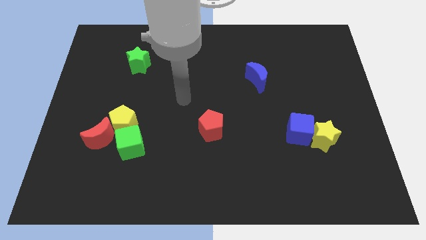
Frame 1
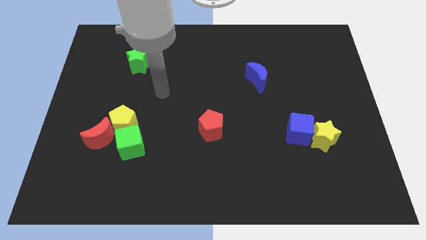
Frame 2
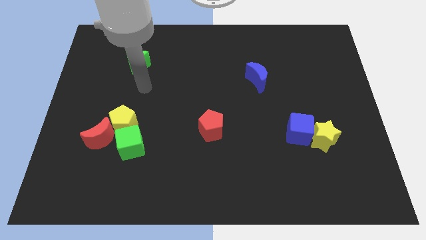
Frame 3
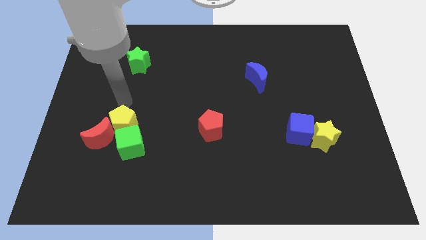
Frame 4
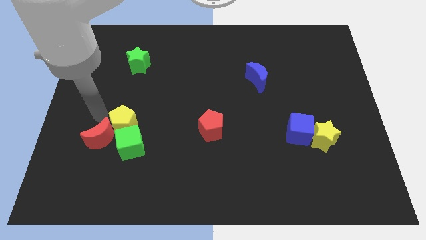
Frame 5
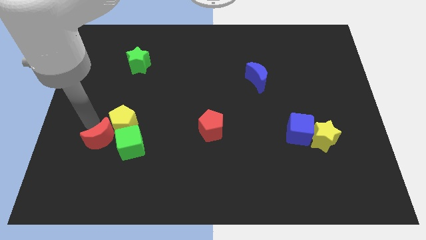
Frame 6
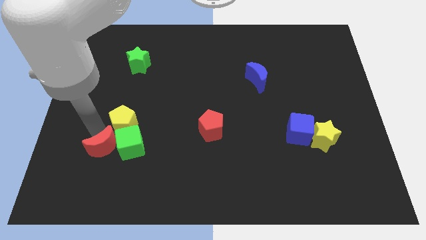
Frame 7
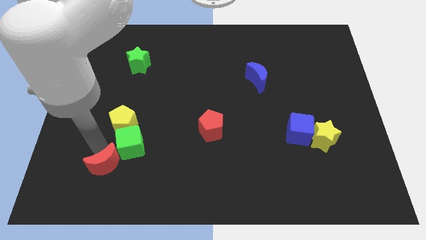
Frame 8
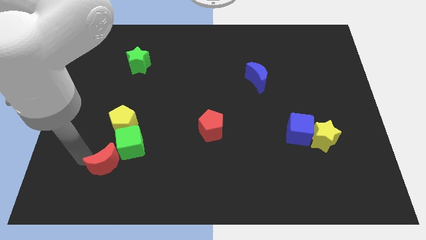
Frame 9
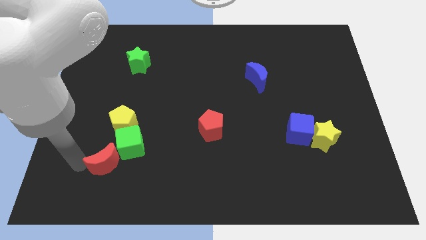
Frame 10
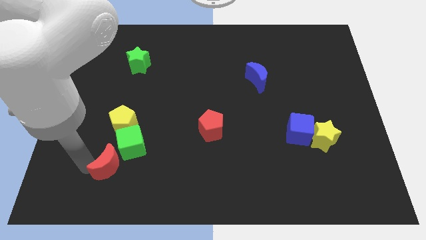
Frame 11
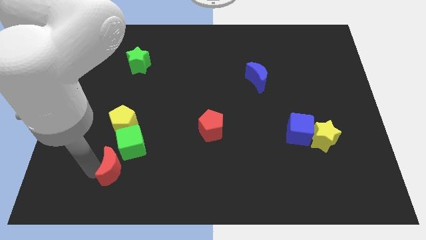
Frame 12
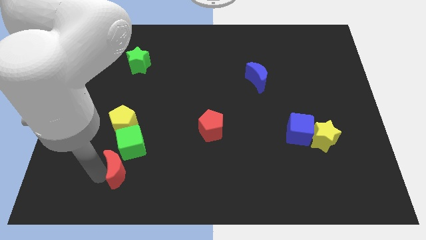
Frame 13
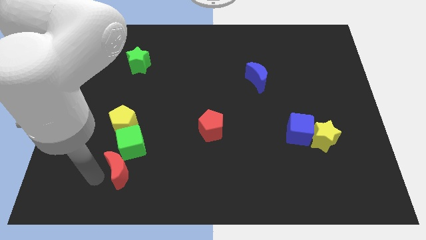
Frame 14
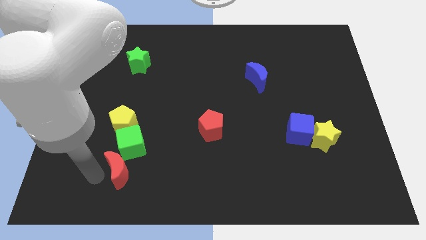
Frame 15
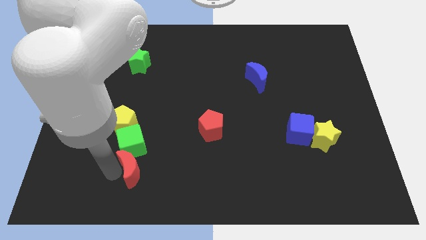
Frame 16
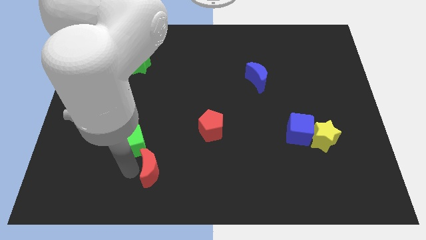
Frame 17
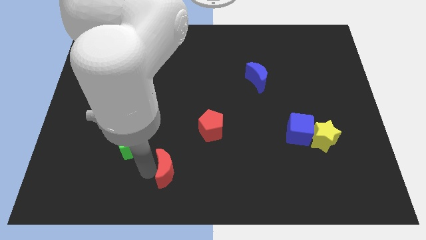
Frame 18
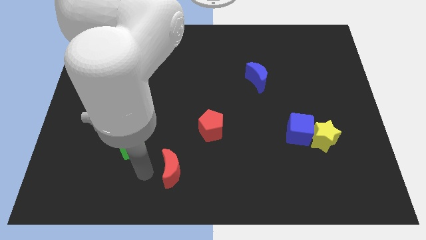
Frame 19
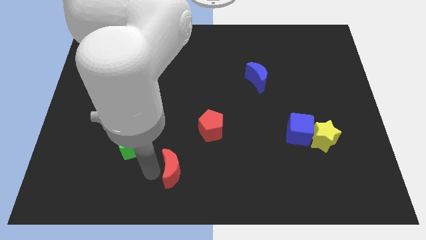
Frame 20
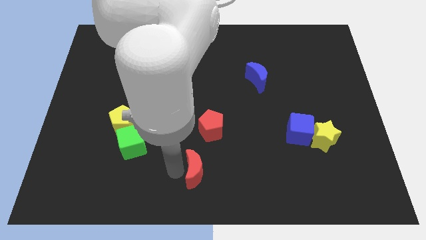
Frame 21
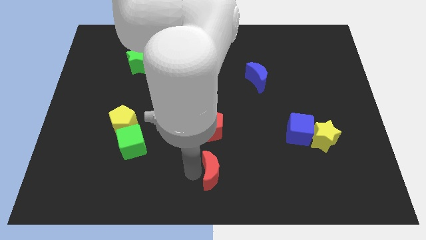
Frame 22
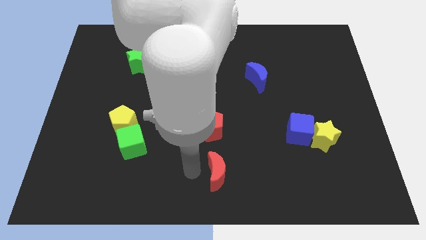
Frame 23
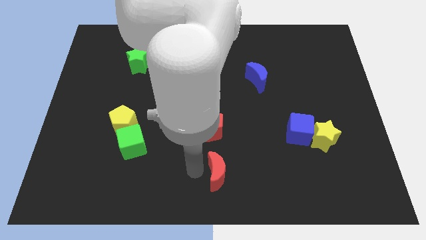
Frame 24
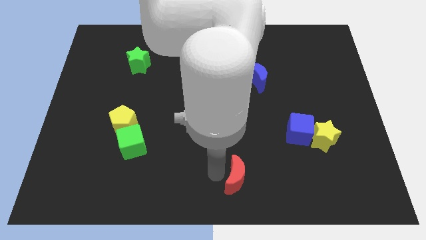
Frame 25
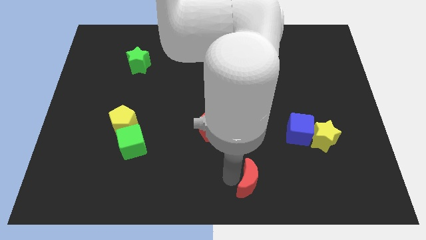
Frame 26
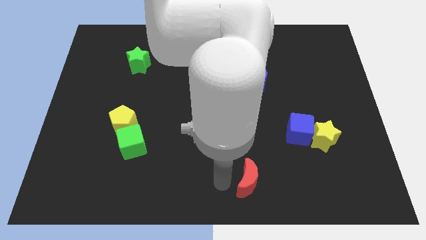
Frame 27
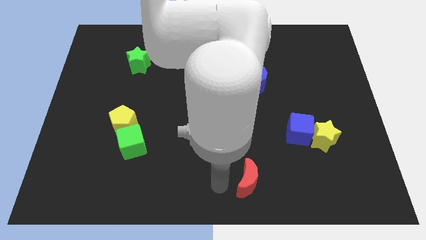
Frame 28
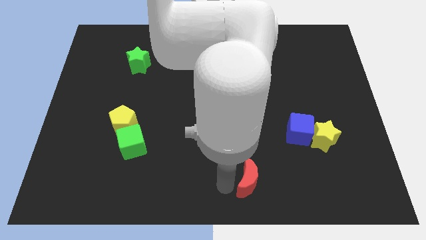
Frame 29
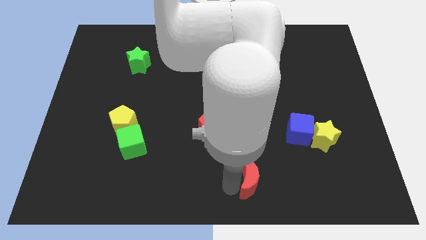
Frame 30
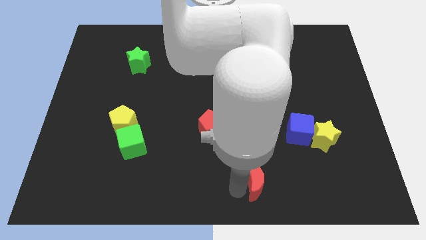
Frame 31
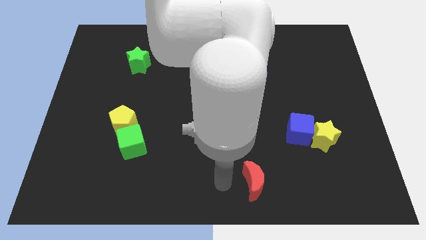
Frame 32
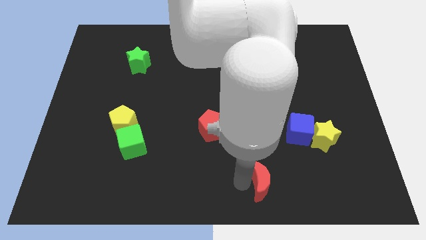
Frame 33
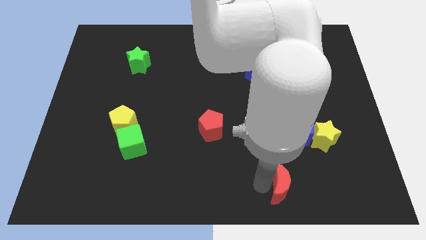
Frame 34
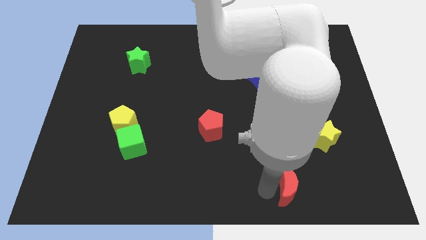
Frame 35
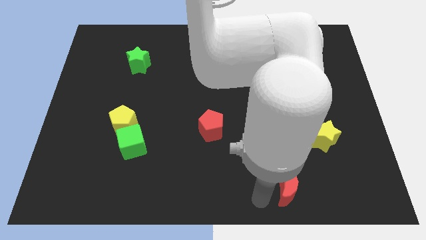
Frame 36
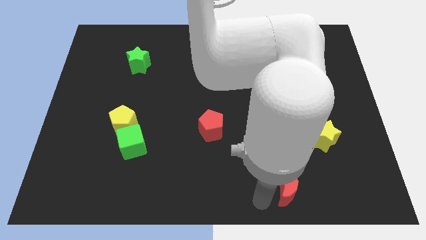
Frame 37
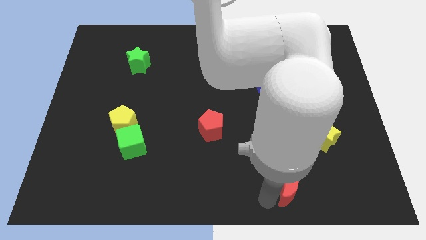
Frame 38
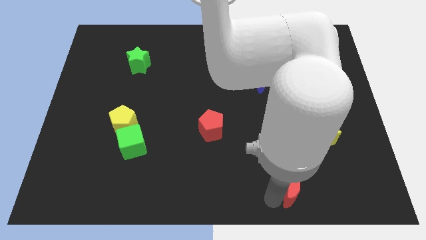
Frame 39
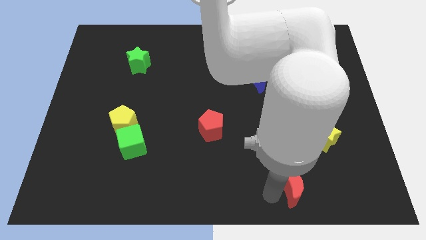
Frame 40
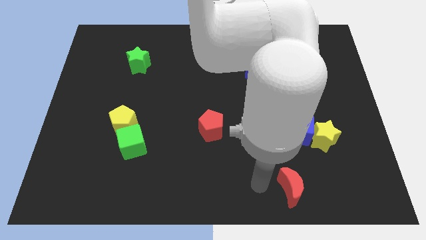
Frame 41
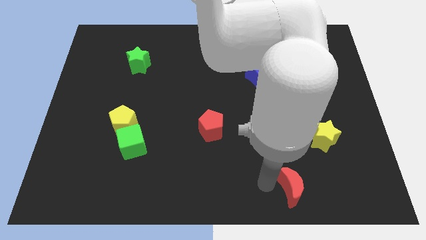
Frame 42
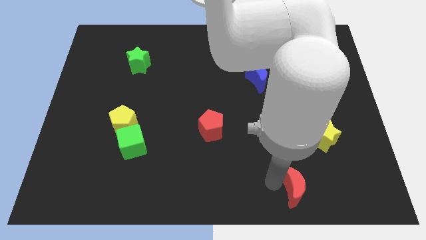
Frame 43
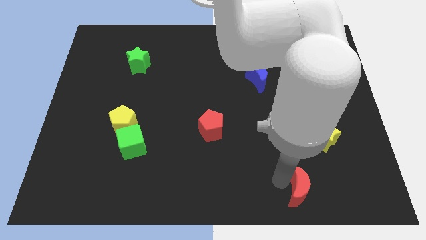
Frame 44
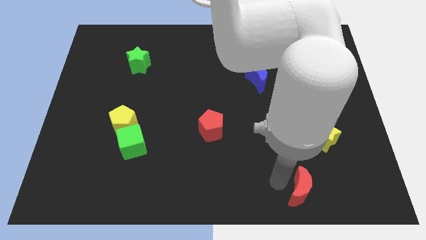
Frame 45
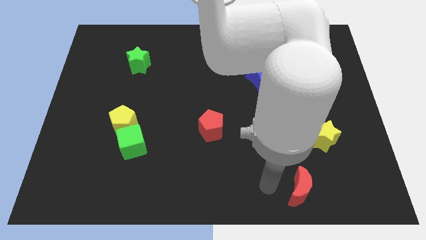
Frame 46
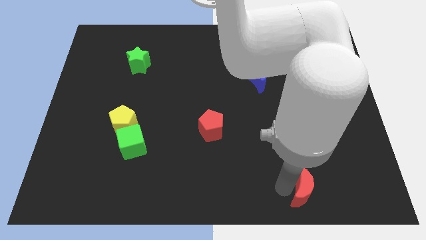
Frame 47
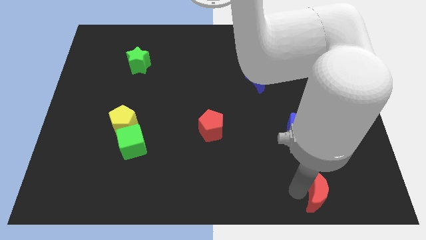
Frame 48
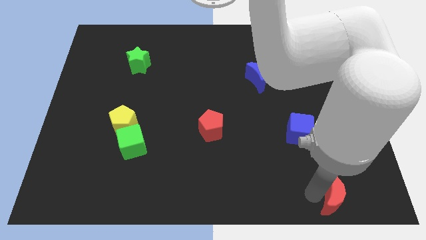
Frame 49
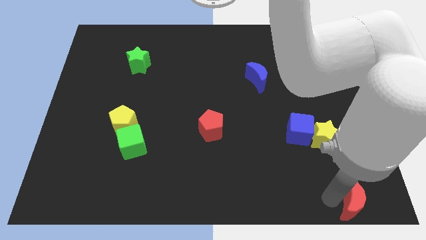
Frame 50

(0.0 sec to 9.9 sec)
put the red moon to the lower right corner

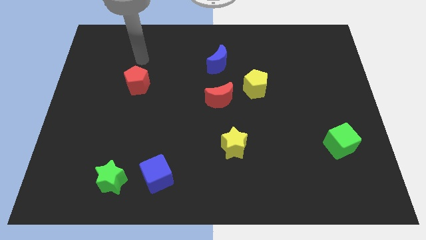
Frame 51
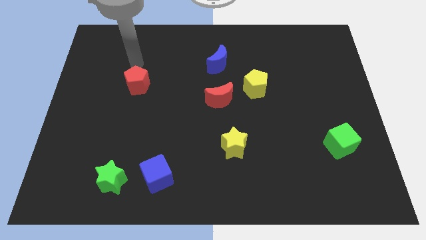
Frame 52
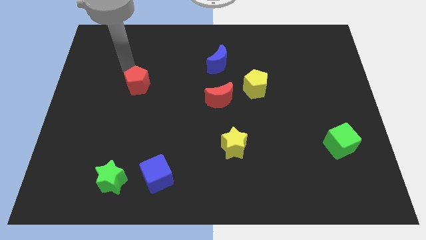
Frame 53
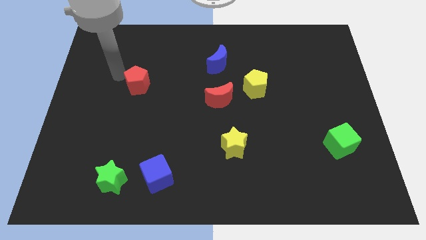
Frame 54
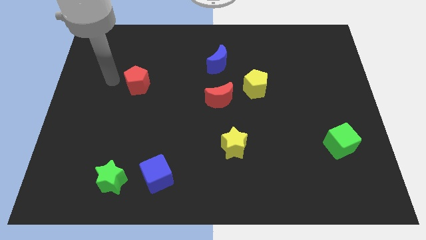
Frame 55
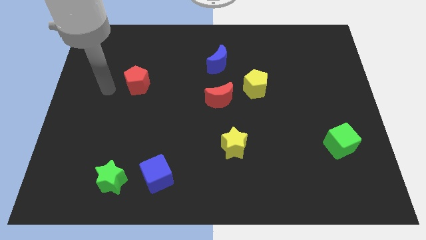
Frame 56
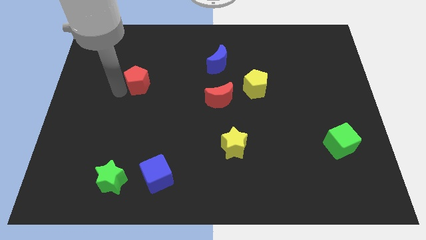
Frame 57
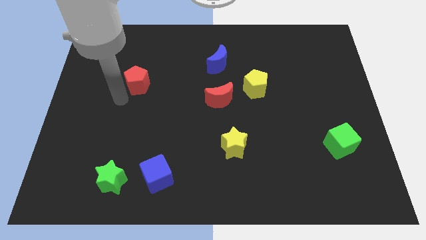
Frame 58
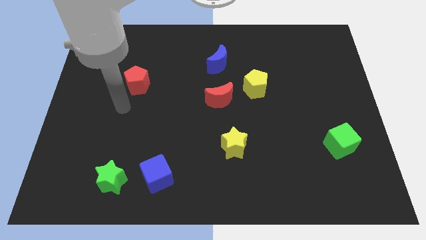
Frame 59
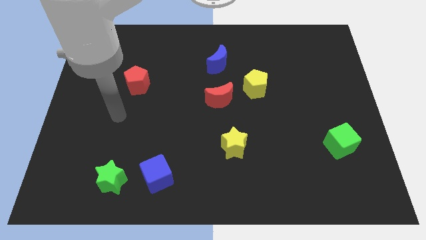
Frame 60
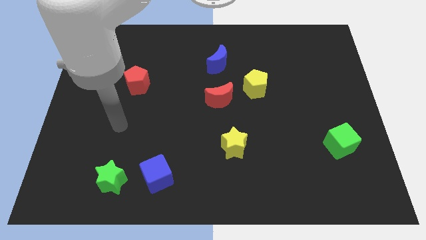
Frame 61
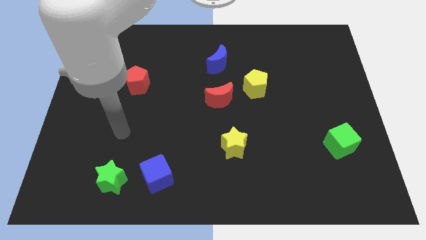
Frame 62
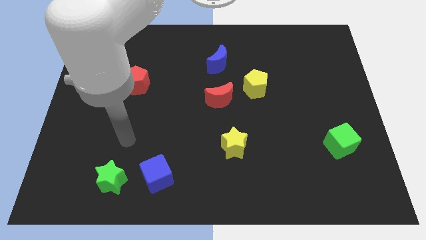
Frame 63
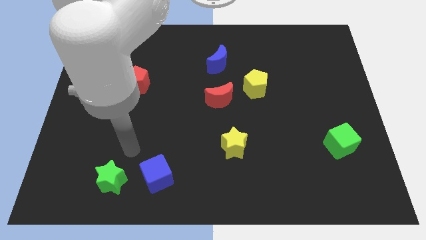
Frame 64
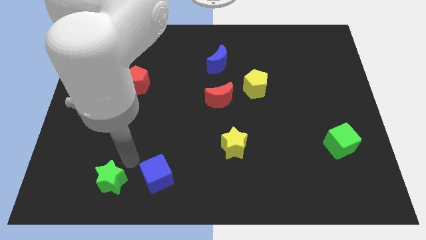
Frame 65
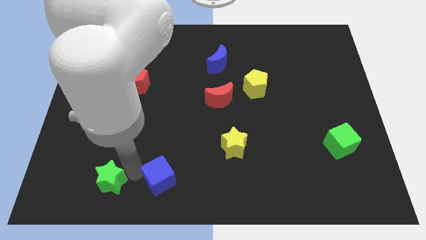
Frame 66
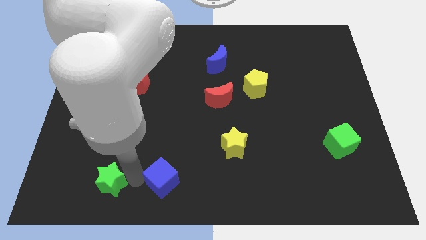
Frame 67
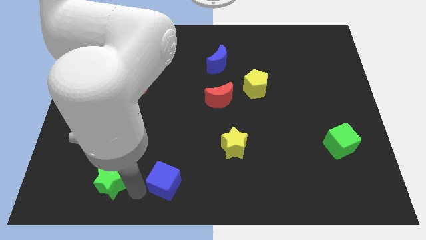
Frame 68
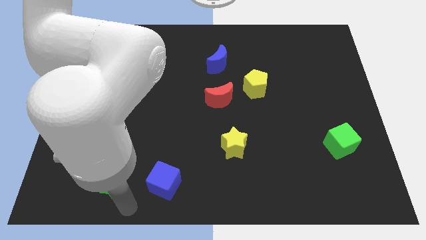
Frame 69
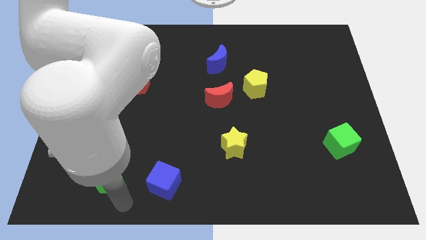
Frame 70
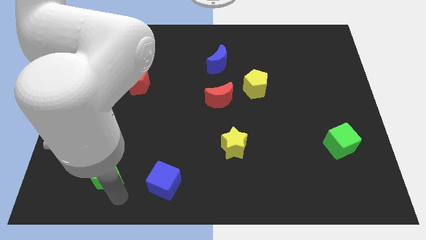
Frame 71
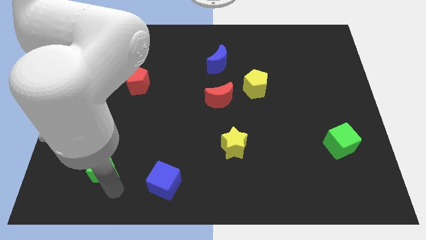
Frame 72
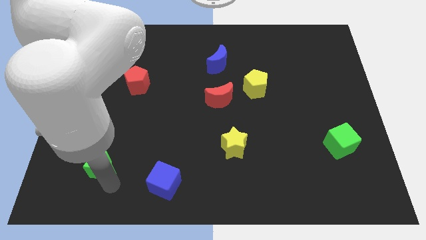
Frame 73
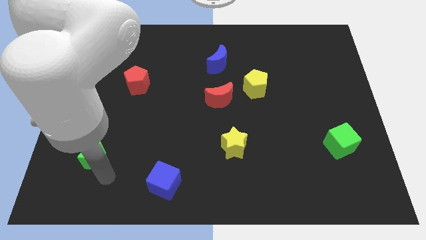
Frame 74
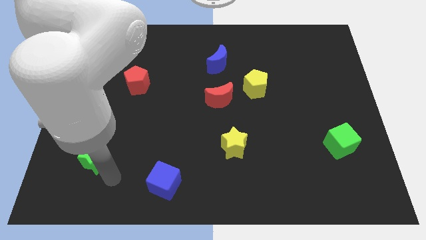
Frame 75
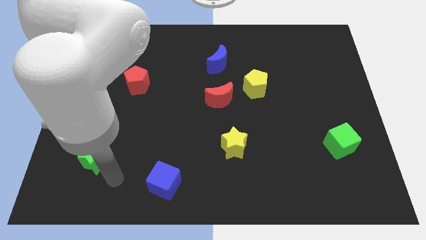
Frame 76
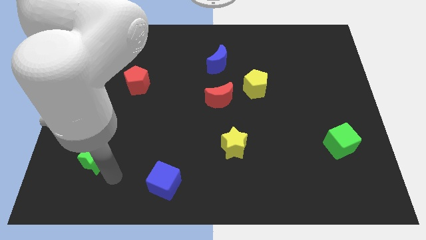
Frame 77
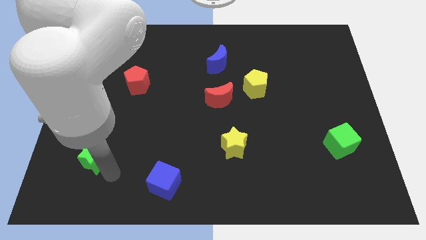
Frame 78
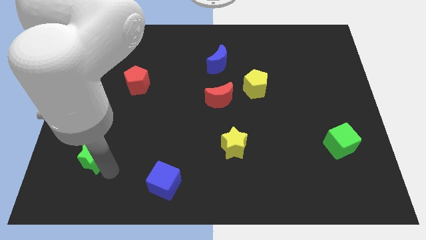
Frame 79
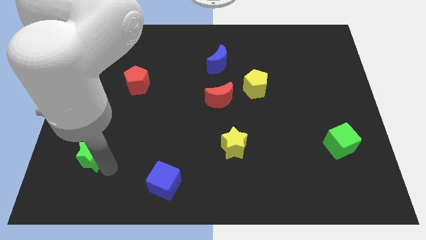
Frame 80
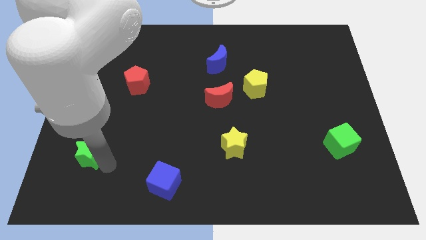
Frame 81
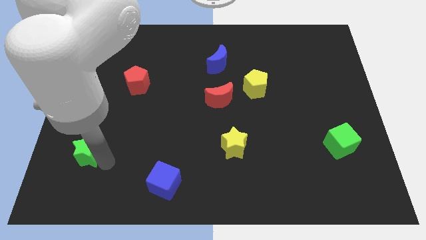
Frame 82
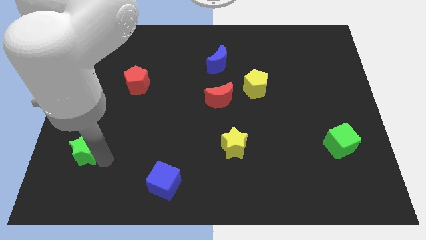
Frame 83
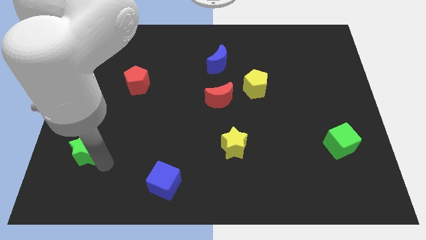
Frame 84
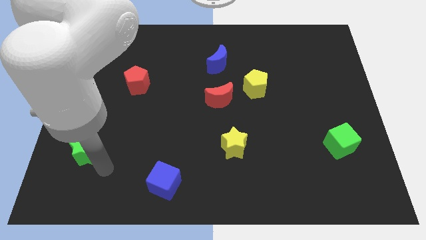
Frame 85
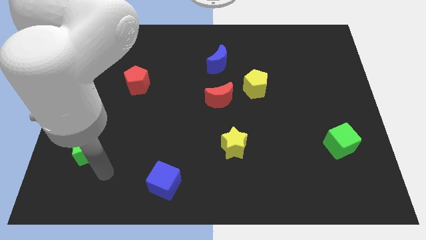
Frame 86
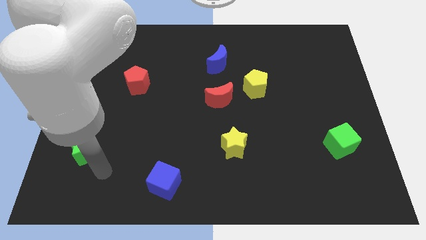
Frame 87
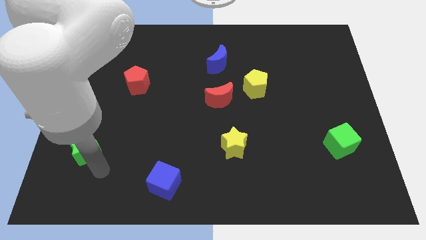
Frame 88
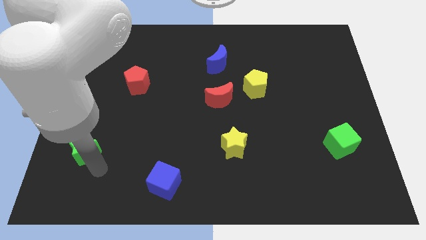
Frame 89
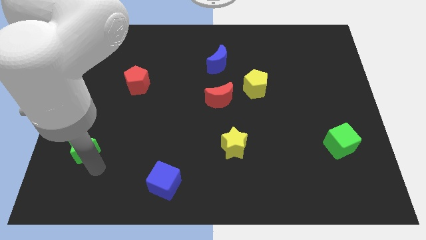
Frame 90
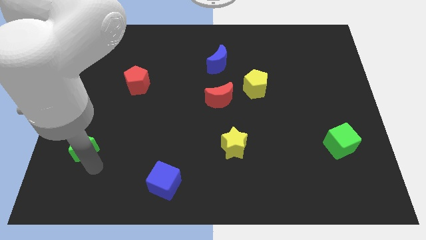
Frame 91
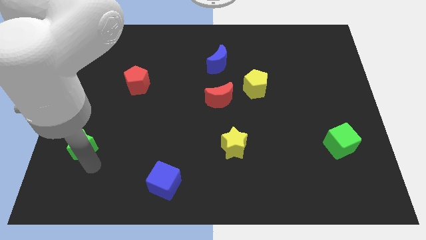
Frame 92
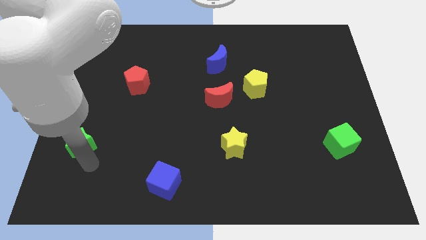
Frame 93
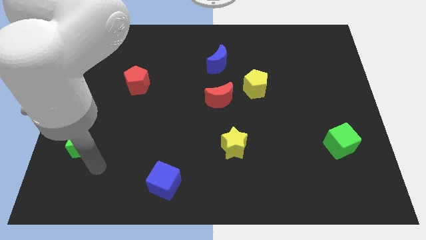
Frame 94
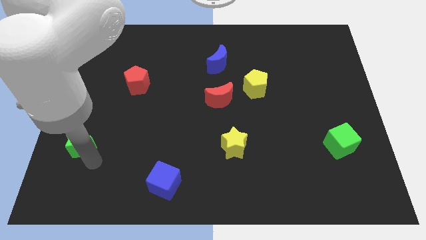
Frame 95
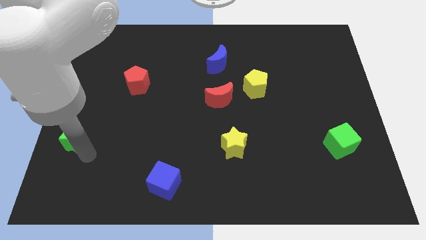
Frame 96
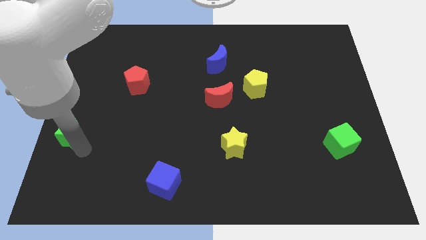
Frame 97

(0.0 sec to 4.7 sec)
put the green star to the left side
